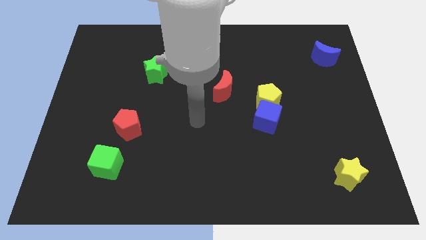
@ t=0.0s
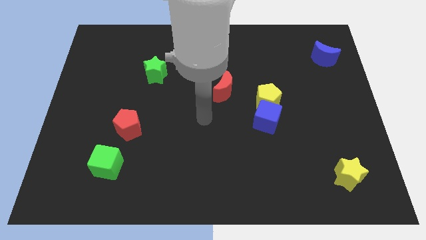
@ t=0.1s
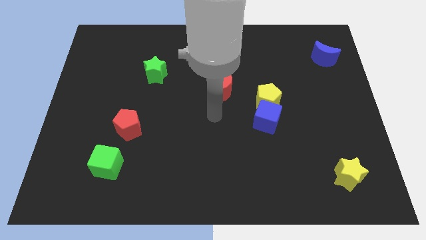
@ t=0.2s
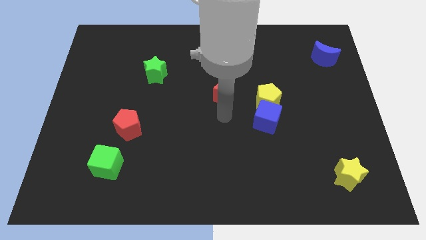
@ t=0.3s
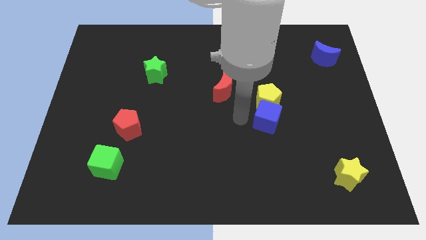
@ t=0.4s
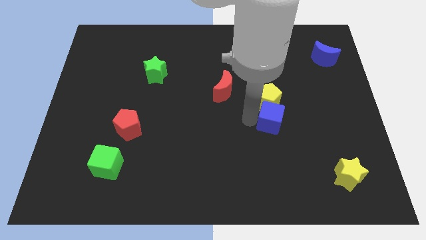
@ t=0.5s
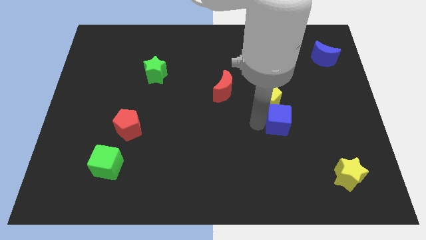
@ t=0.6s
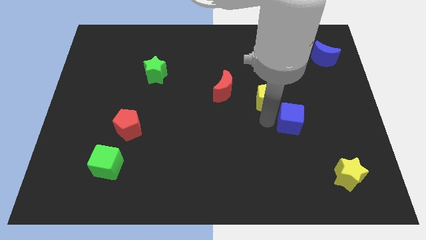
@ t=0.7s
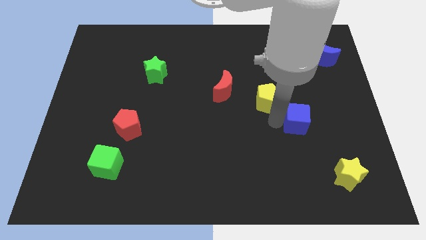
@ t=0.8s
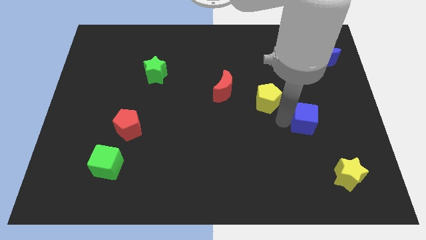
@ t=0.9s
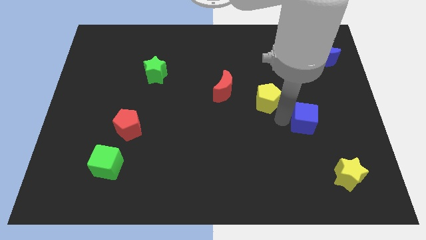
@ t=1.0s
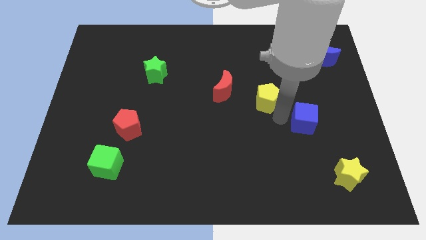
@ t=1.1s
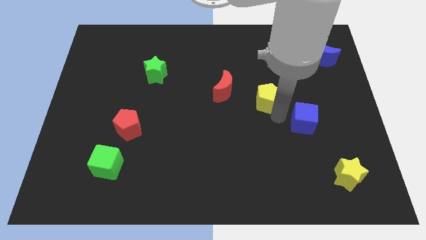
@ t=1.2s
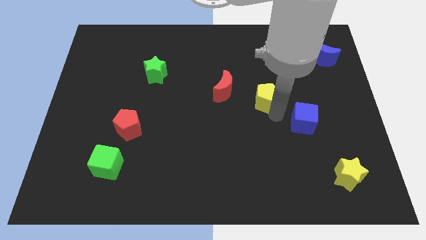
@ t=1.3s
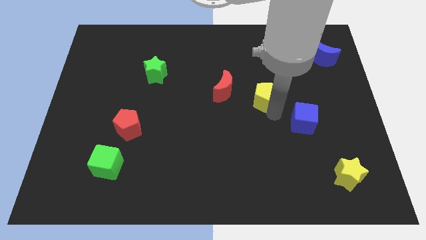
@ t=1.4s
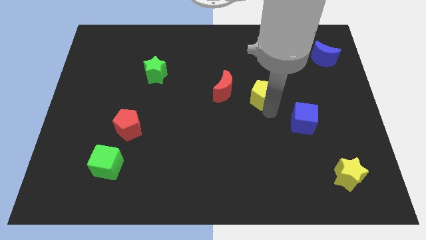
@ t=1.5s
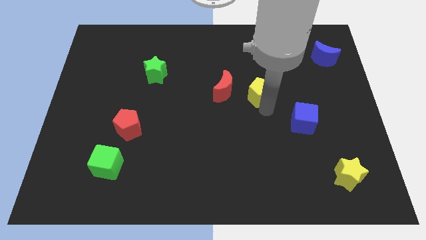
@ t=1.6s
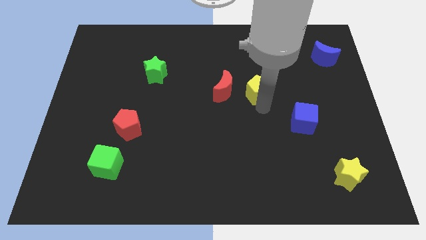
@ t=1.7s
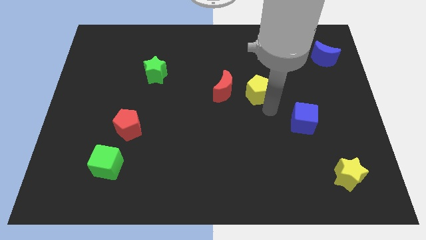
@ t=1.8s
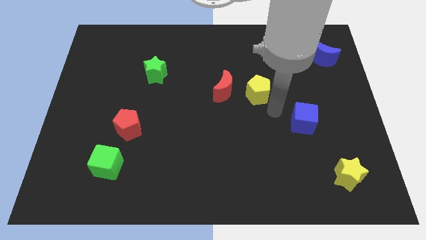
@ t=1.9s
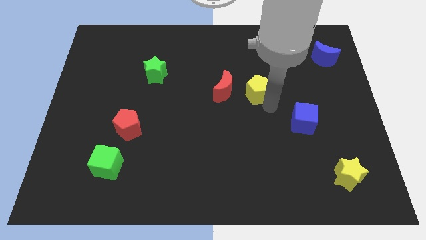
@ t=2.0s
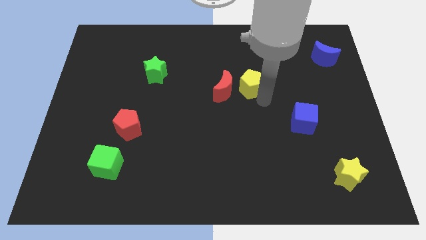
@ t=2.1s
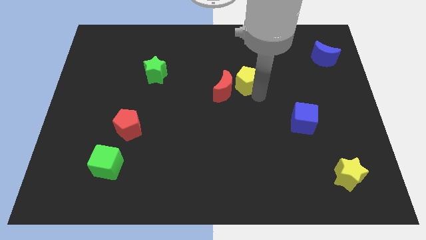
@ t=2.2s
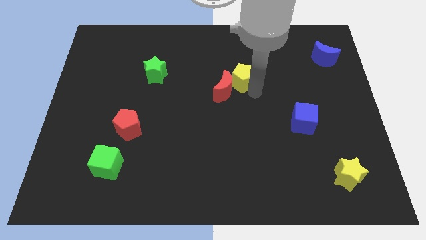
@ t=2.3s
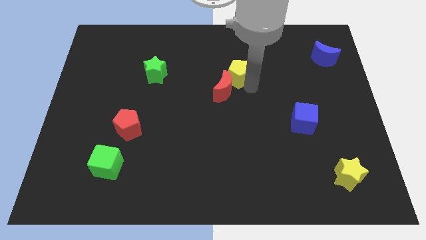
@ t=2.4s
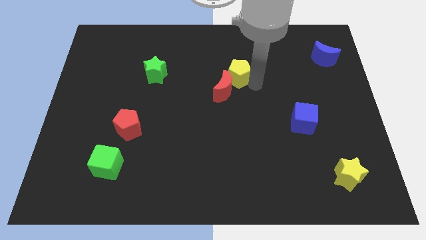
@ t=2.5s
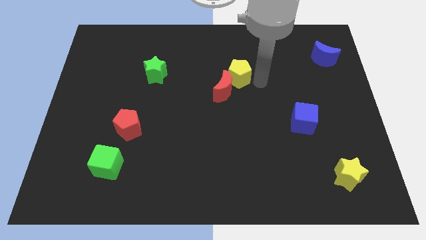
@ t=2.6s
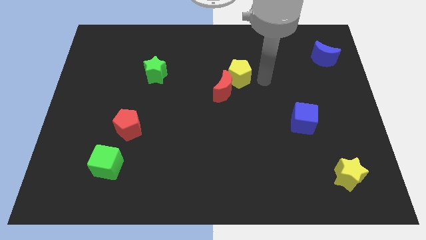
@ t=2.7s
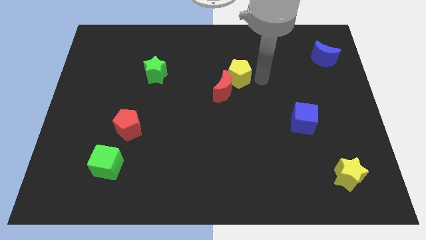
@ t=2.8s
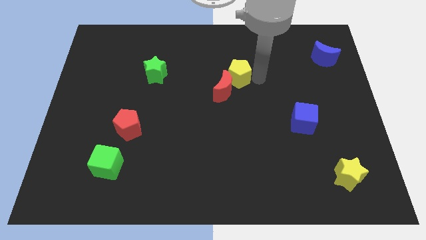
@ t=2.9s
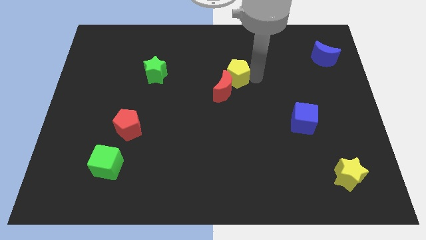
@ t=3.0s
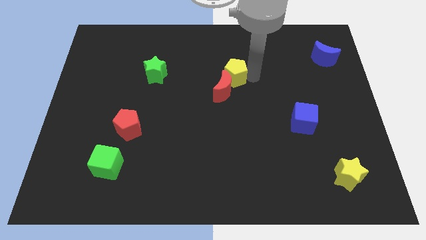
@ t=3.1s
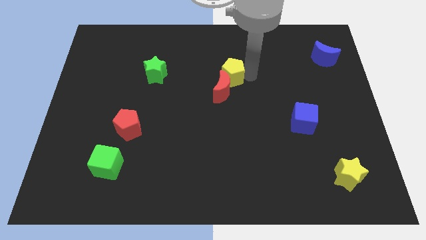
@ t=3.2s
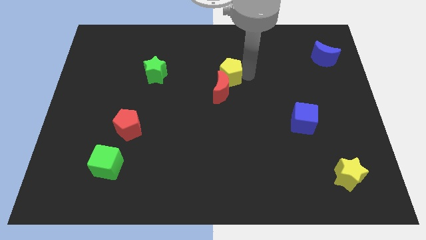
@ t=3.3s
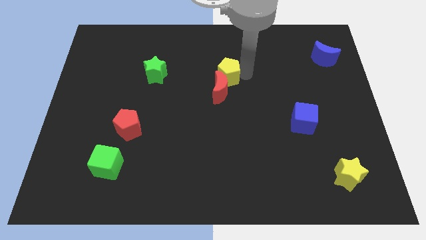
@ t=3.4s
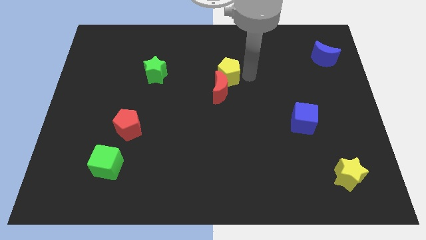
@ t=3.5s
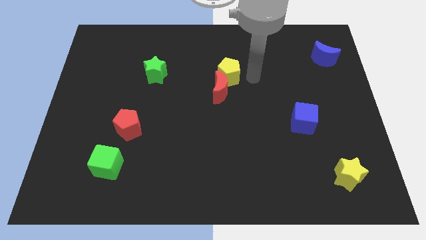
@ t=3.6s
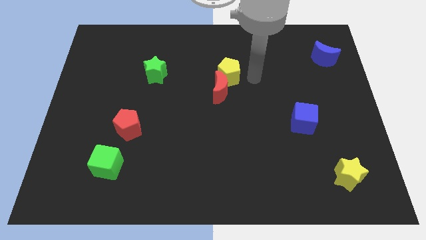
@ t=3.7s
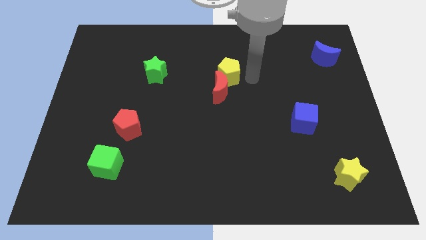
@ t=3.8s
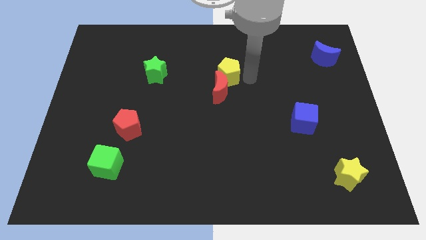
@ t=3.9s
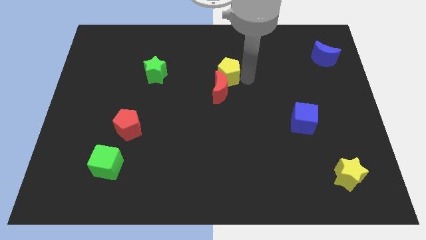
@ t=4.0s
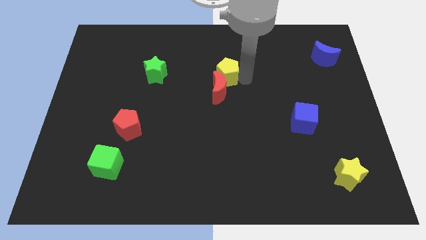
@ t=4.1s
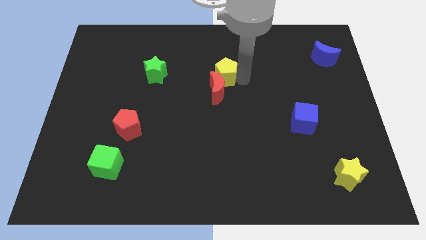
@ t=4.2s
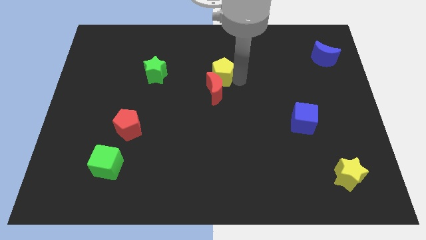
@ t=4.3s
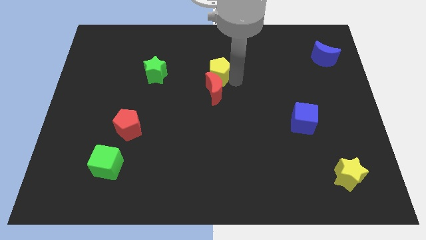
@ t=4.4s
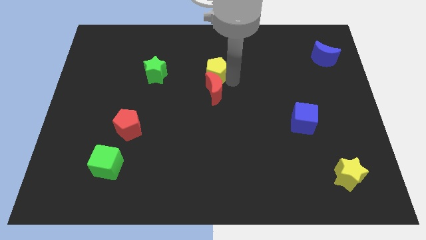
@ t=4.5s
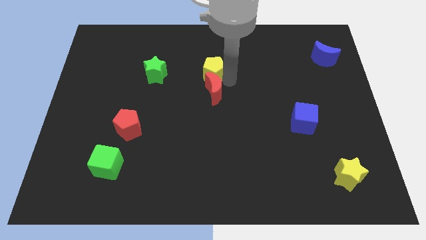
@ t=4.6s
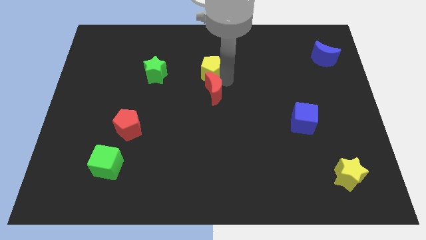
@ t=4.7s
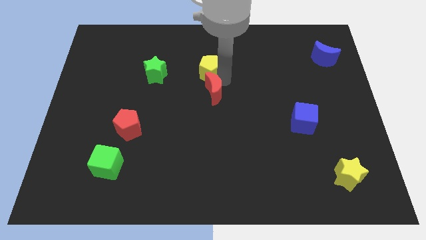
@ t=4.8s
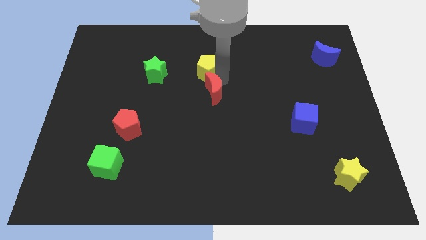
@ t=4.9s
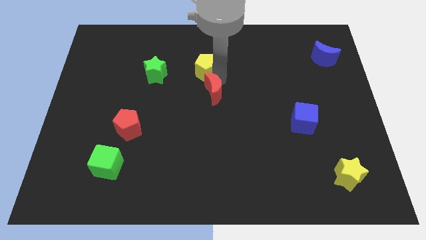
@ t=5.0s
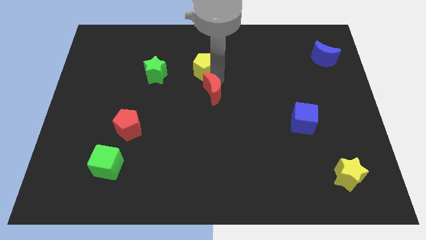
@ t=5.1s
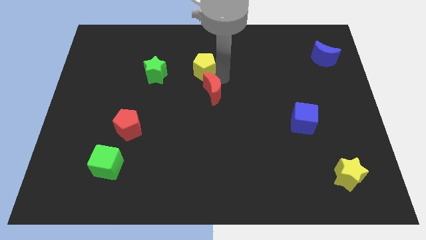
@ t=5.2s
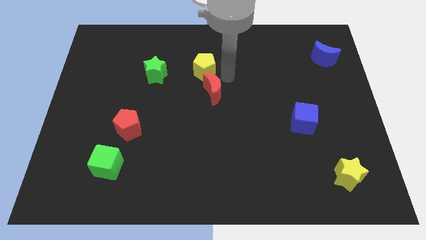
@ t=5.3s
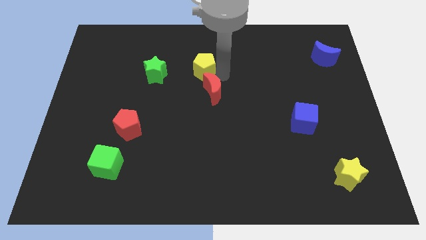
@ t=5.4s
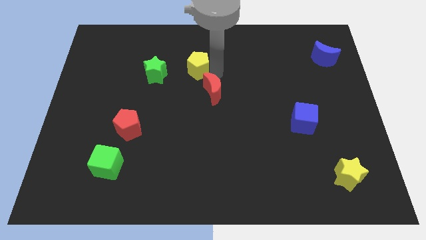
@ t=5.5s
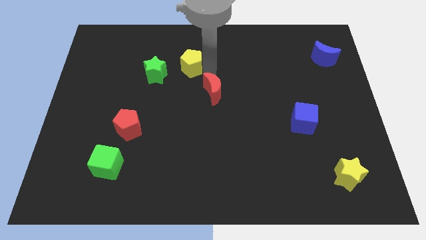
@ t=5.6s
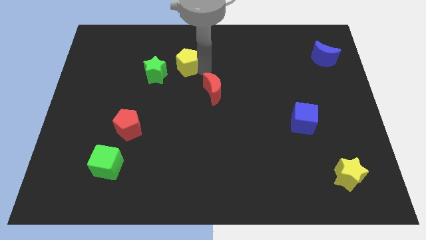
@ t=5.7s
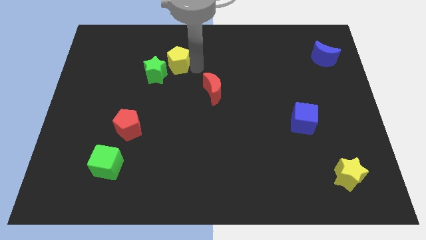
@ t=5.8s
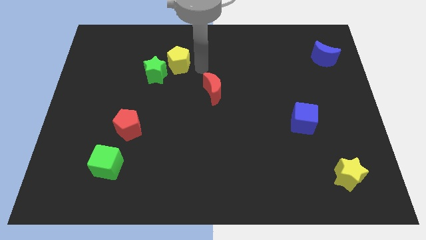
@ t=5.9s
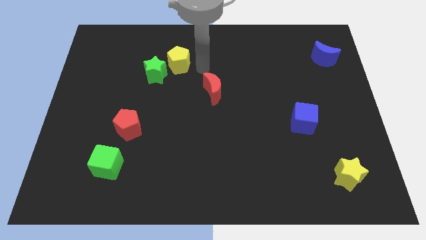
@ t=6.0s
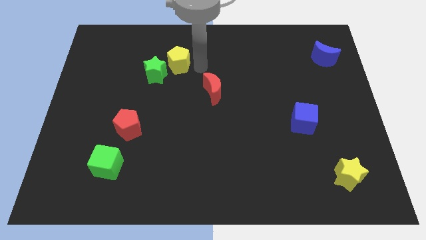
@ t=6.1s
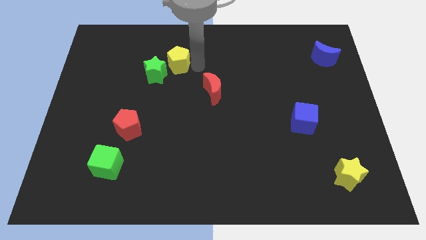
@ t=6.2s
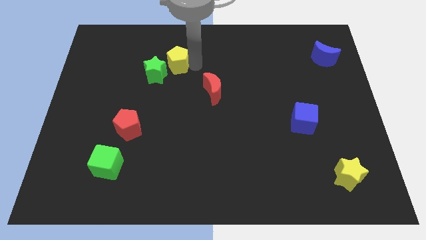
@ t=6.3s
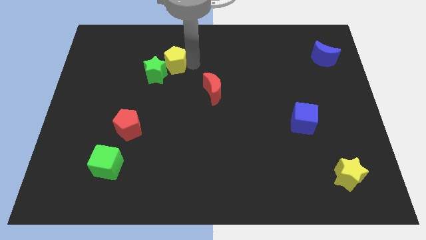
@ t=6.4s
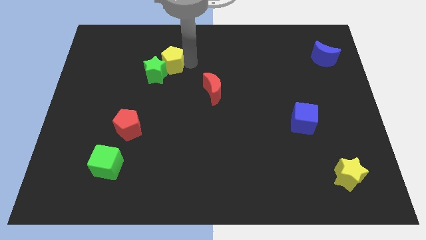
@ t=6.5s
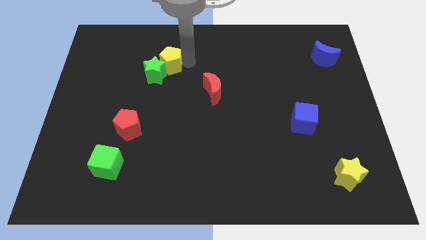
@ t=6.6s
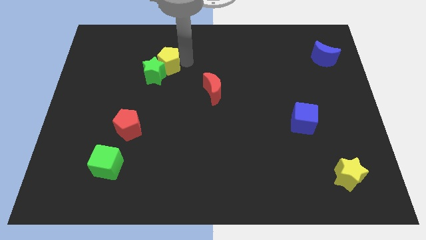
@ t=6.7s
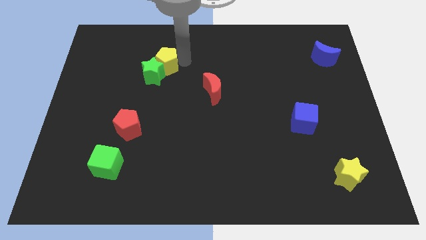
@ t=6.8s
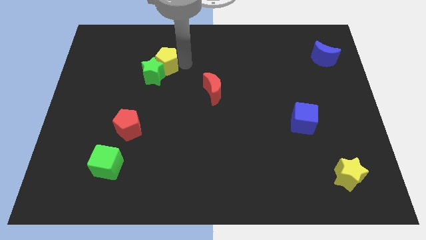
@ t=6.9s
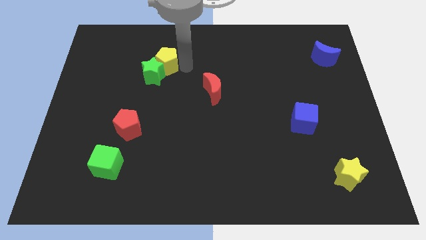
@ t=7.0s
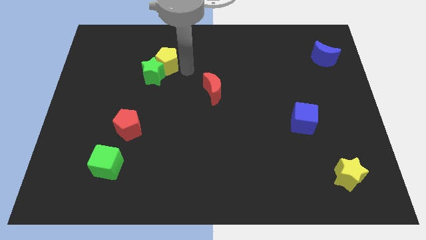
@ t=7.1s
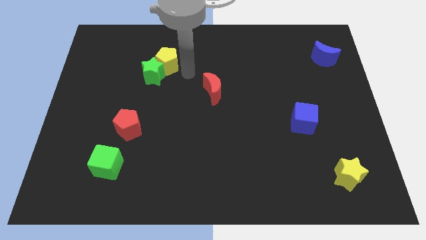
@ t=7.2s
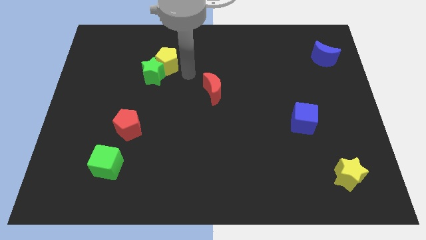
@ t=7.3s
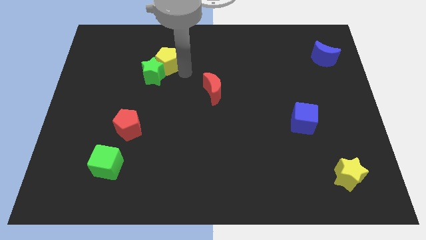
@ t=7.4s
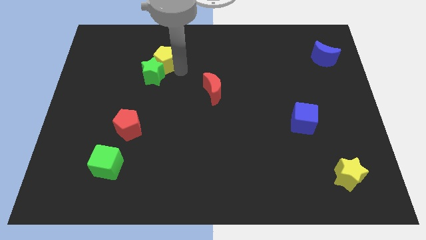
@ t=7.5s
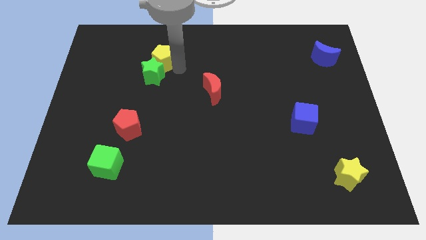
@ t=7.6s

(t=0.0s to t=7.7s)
put the yellow pentagon to the top left of the green star

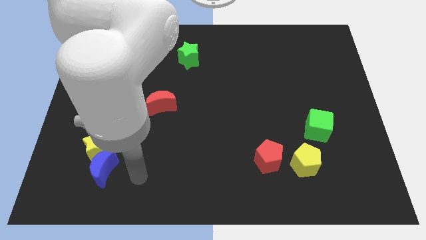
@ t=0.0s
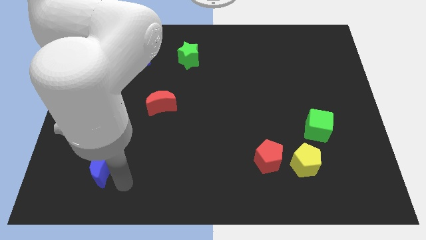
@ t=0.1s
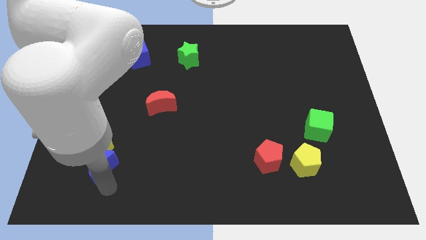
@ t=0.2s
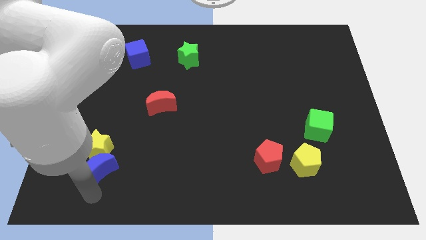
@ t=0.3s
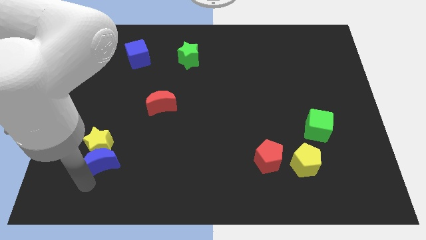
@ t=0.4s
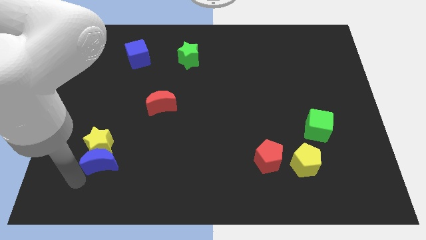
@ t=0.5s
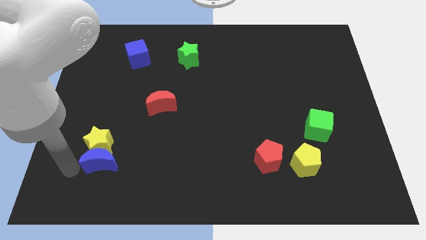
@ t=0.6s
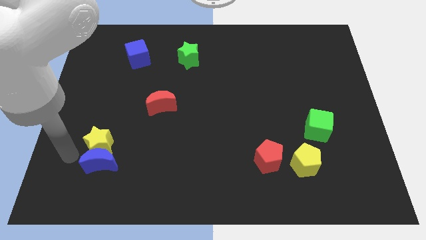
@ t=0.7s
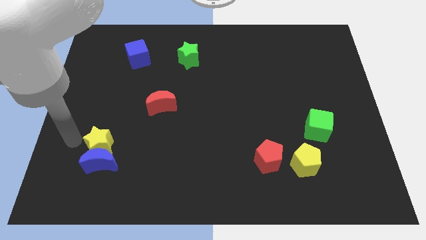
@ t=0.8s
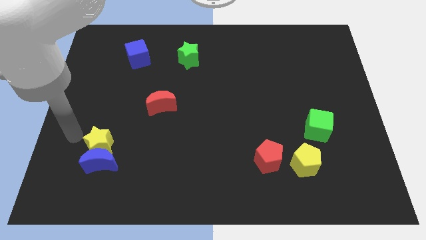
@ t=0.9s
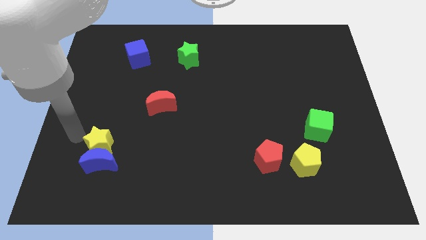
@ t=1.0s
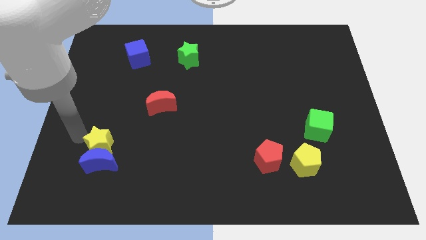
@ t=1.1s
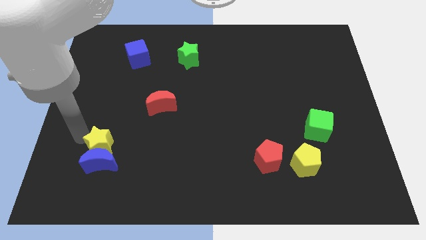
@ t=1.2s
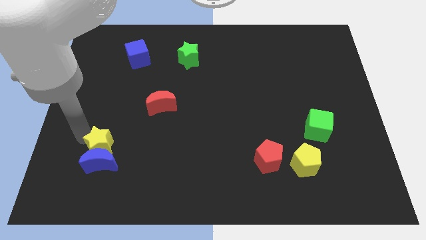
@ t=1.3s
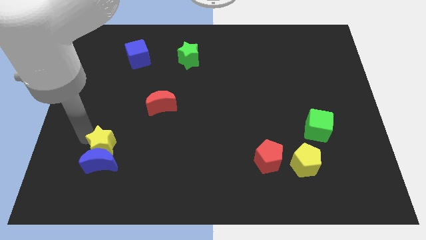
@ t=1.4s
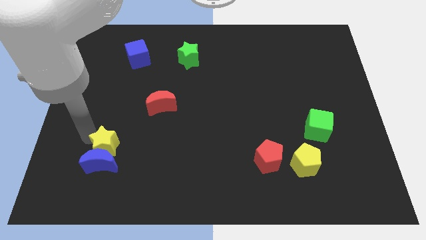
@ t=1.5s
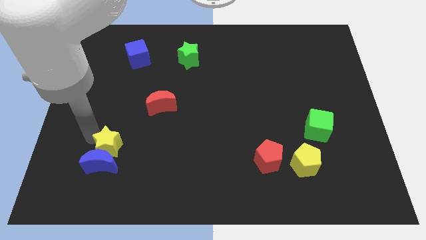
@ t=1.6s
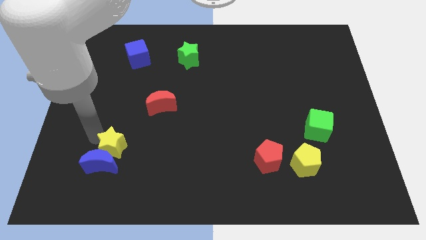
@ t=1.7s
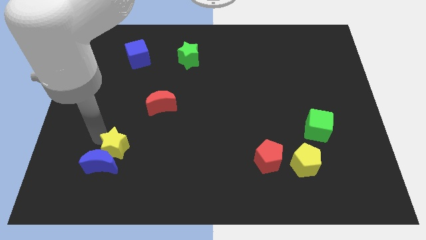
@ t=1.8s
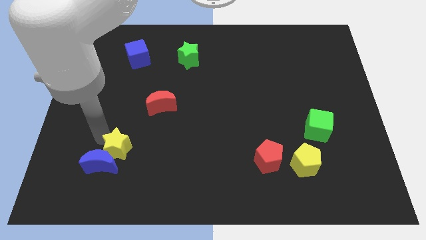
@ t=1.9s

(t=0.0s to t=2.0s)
move the yellow star to the right of the blue moon
